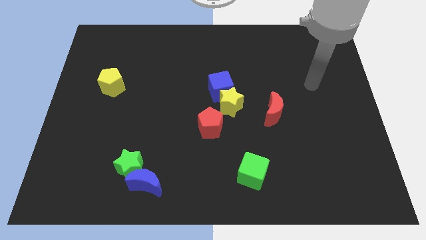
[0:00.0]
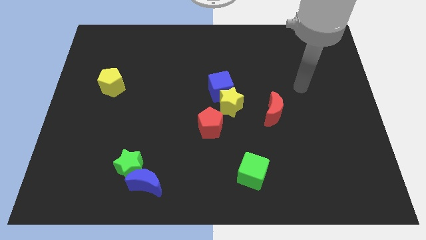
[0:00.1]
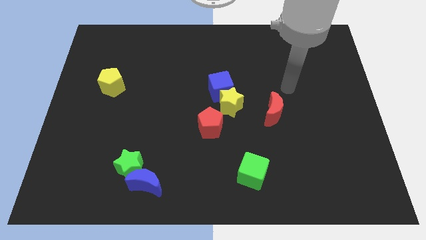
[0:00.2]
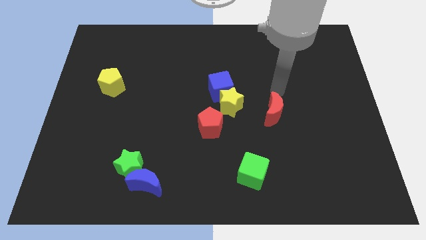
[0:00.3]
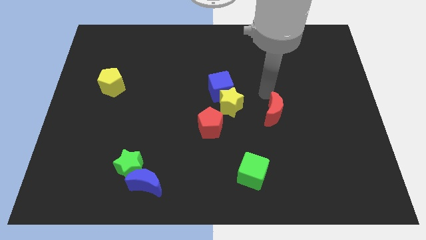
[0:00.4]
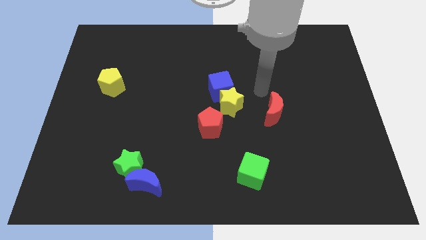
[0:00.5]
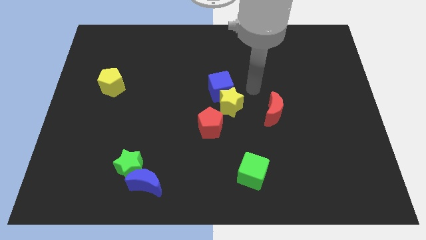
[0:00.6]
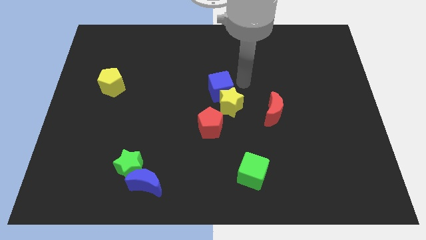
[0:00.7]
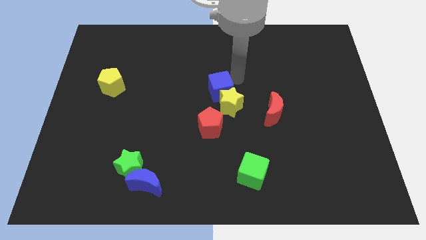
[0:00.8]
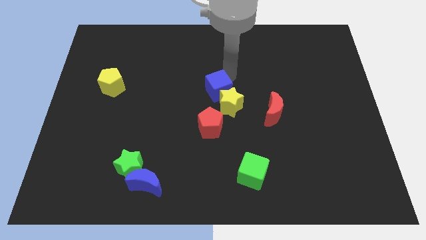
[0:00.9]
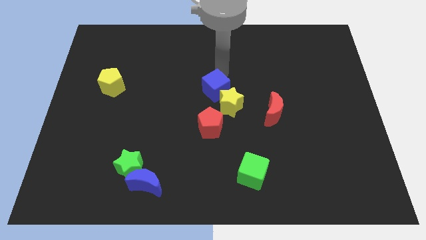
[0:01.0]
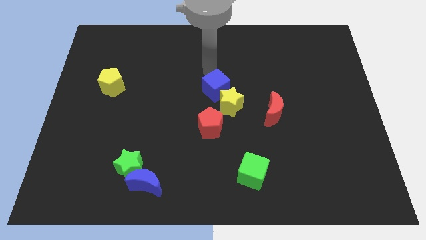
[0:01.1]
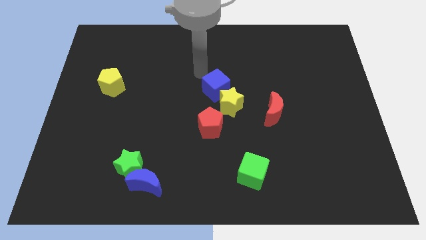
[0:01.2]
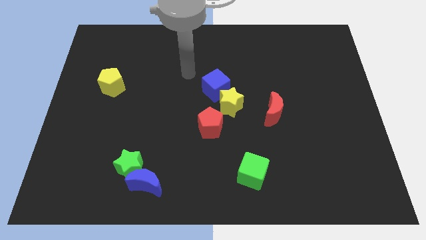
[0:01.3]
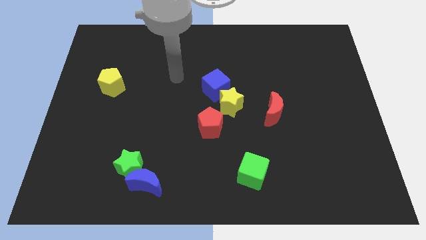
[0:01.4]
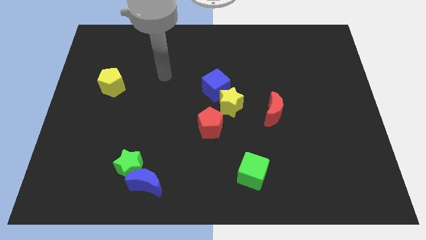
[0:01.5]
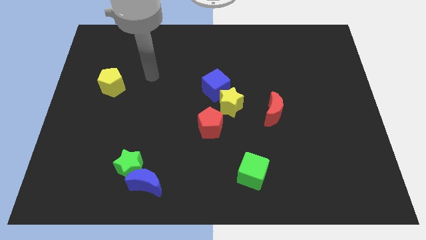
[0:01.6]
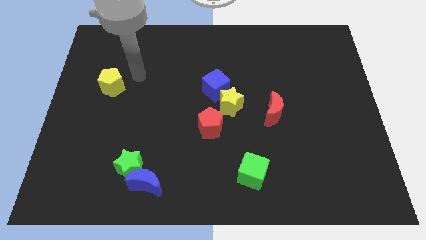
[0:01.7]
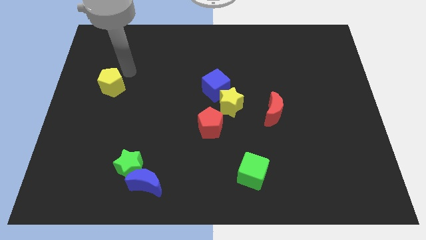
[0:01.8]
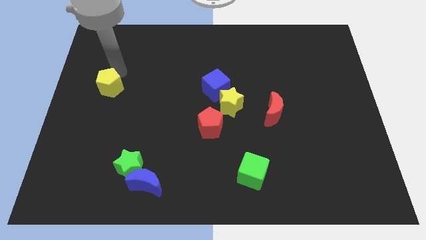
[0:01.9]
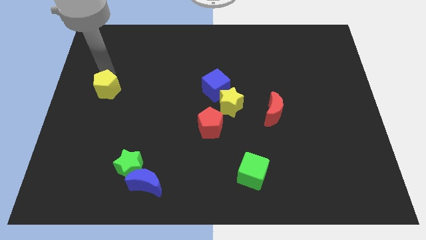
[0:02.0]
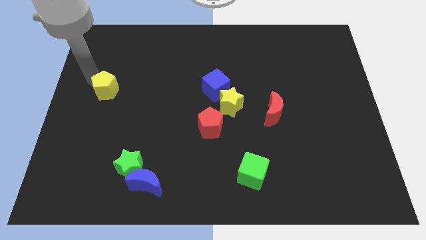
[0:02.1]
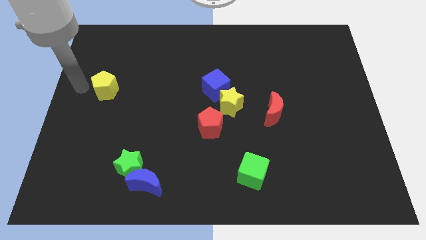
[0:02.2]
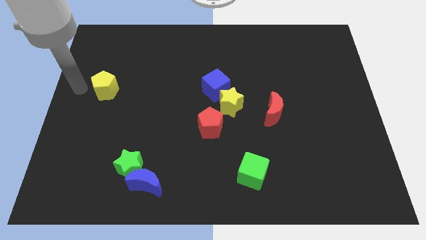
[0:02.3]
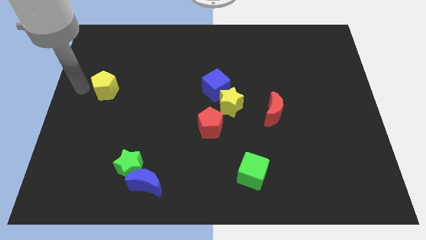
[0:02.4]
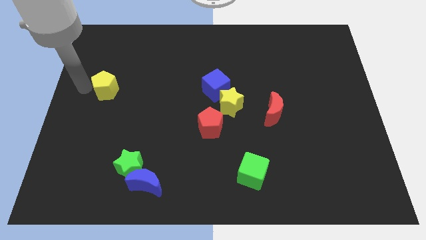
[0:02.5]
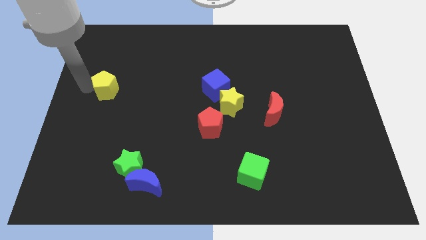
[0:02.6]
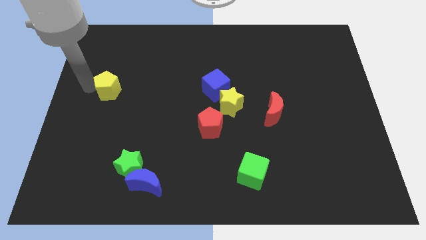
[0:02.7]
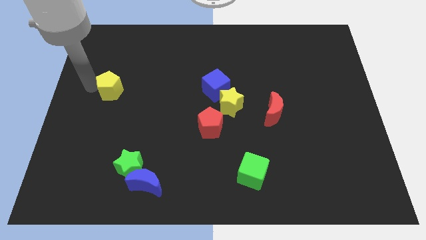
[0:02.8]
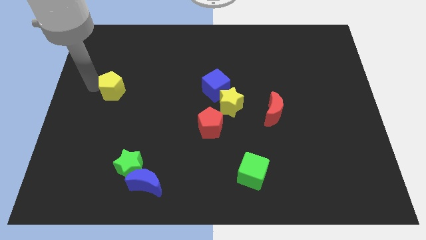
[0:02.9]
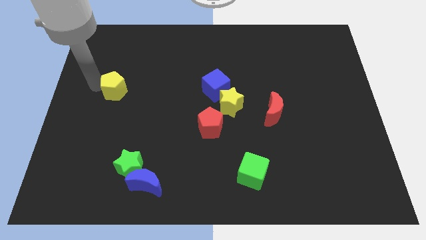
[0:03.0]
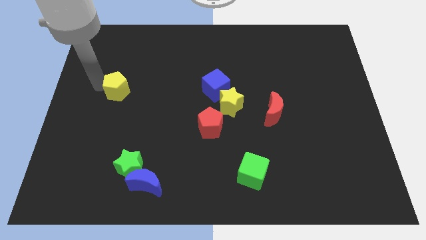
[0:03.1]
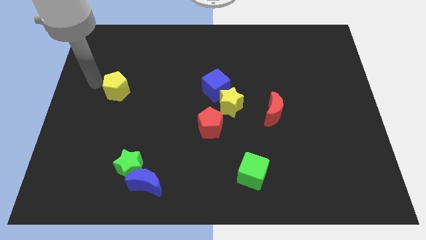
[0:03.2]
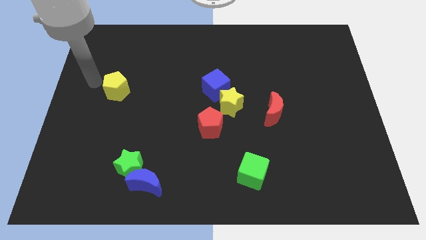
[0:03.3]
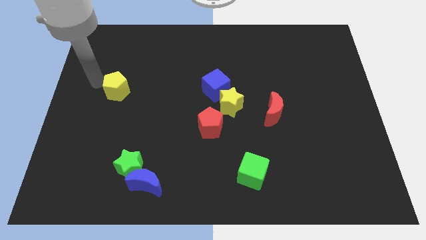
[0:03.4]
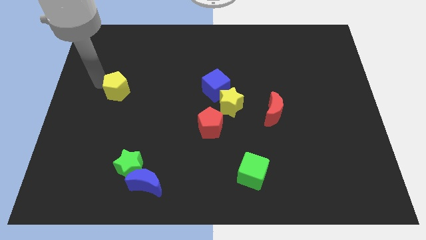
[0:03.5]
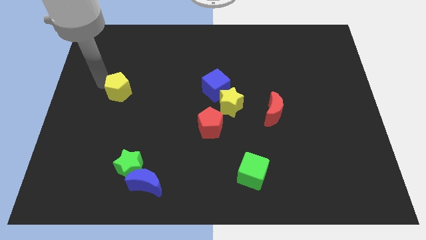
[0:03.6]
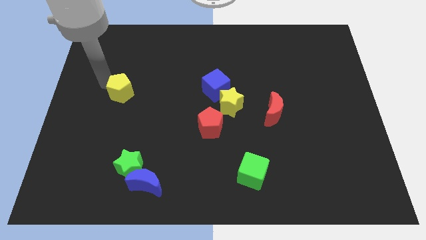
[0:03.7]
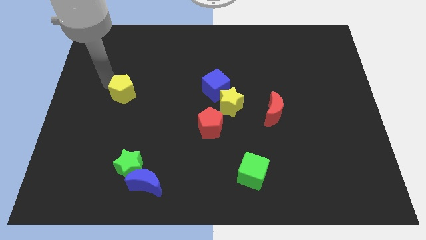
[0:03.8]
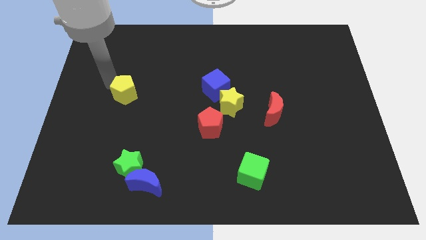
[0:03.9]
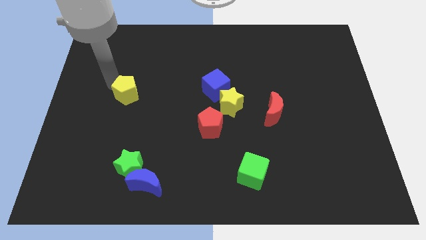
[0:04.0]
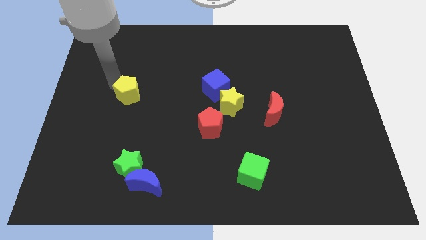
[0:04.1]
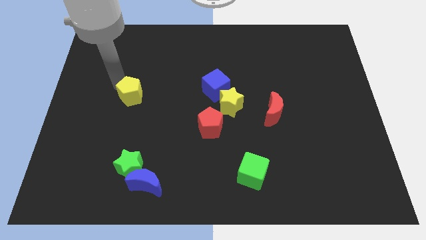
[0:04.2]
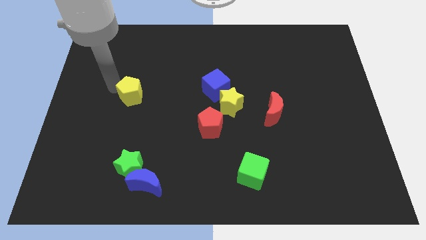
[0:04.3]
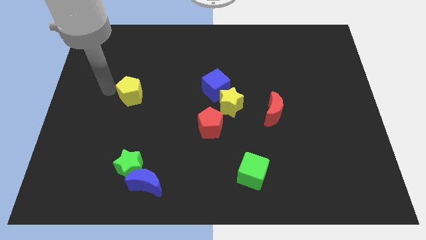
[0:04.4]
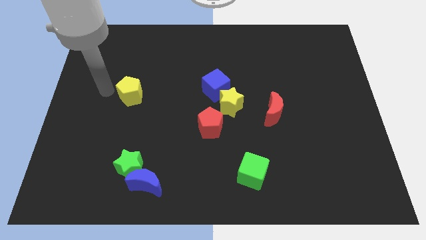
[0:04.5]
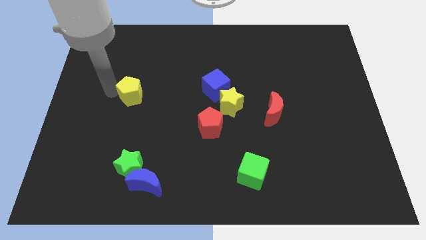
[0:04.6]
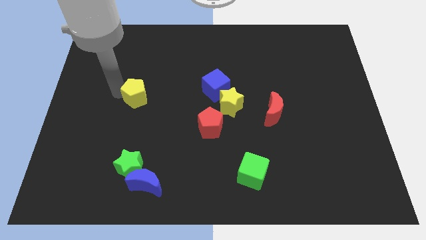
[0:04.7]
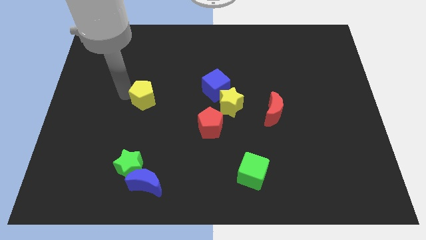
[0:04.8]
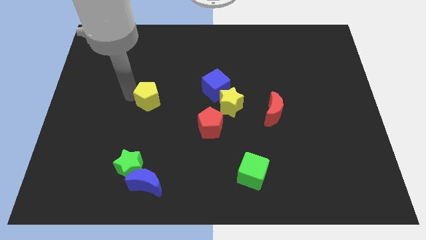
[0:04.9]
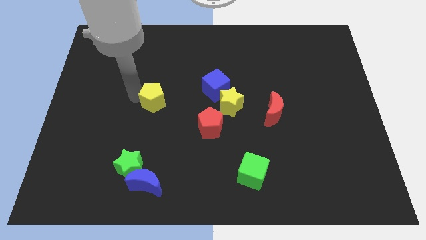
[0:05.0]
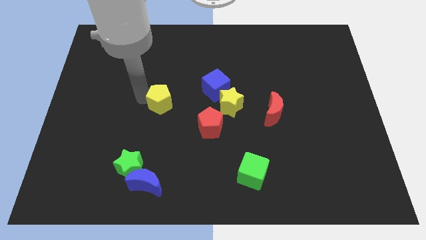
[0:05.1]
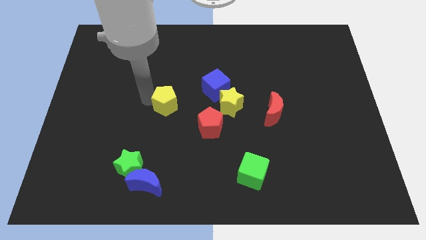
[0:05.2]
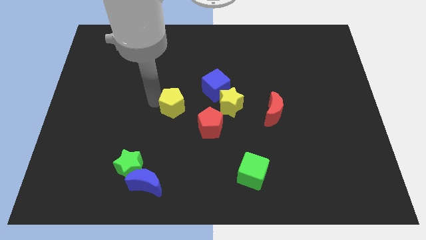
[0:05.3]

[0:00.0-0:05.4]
slide the yellow pentagon to the bottom left of the blue cube

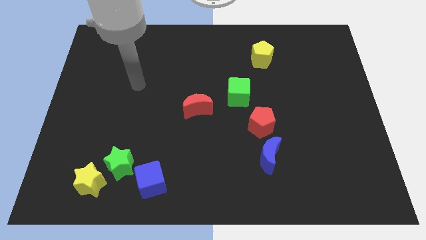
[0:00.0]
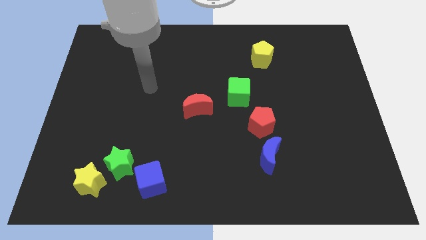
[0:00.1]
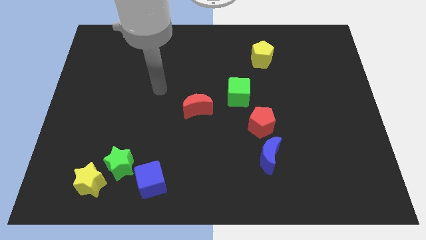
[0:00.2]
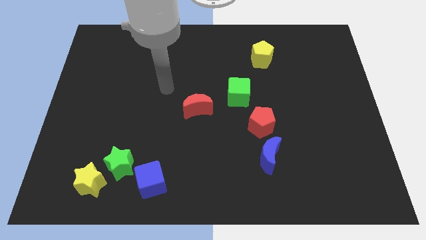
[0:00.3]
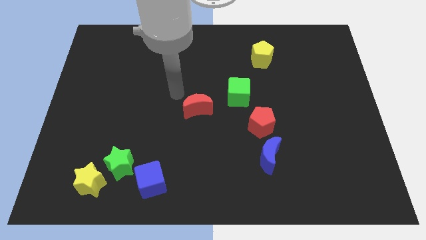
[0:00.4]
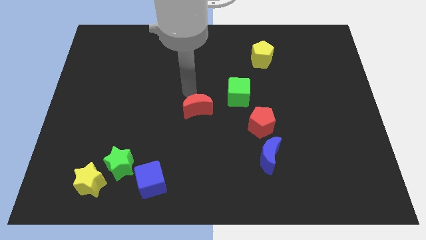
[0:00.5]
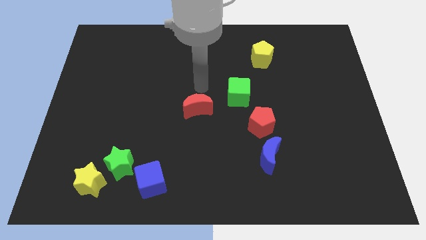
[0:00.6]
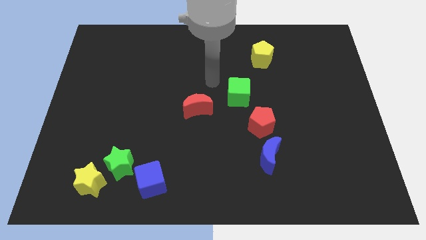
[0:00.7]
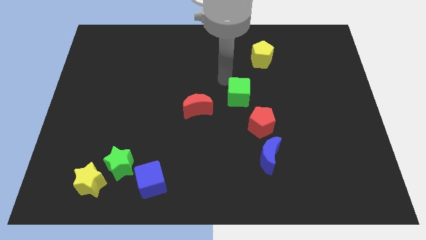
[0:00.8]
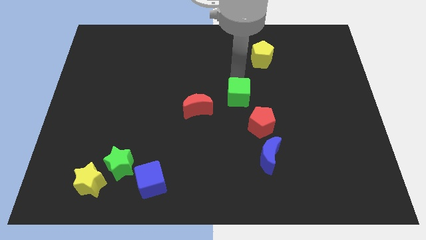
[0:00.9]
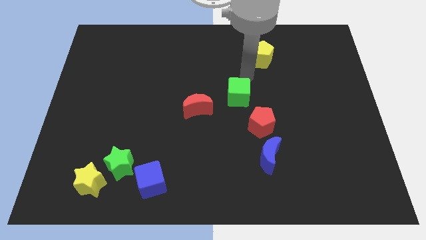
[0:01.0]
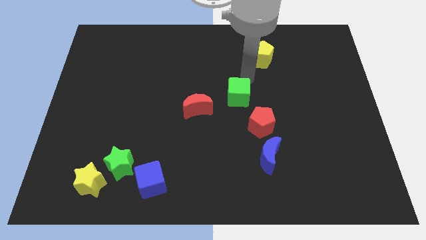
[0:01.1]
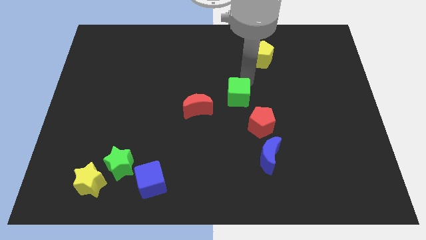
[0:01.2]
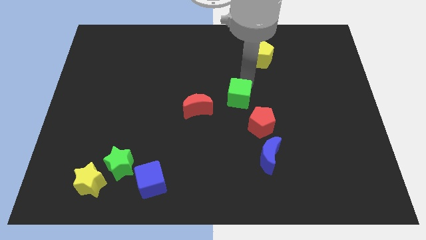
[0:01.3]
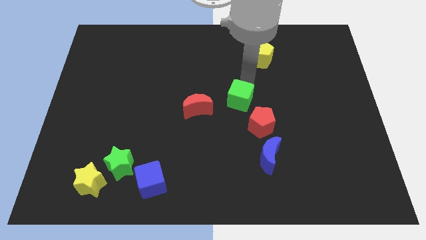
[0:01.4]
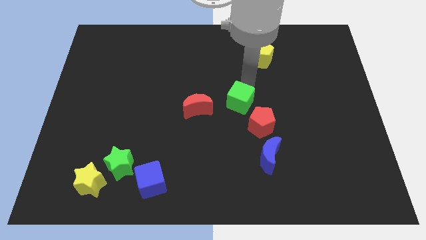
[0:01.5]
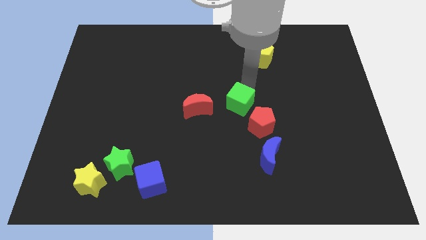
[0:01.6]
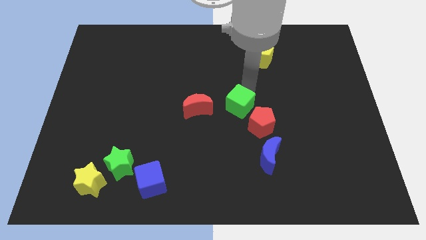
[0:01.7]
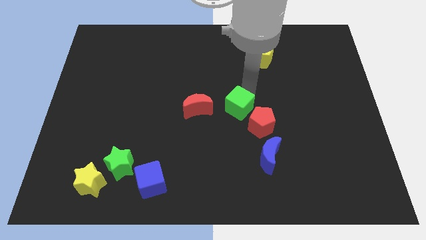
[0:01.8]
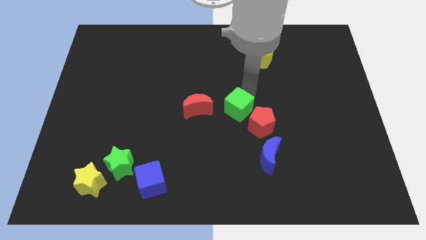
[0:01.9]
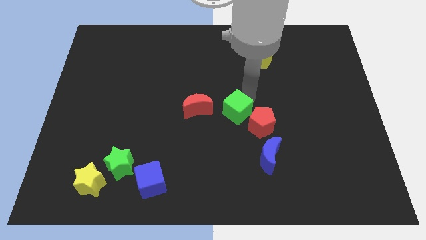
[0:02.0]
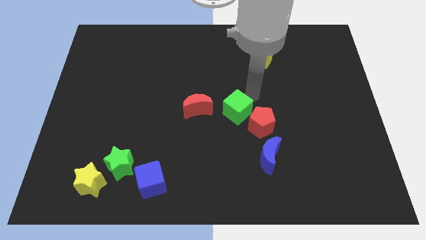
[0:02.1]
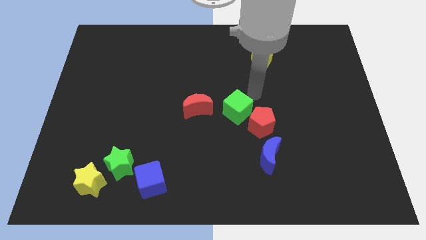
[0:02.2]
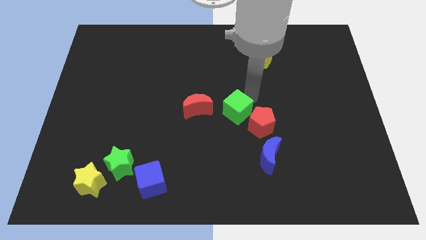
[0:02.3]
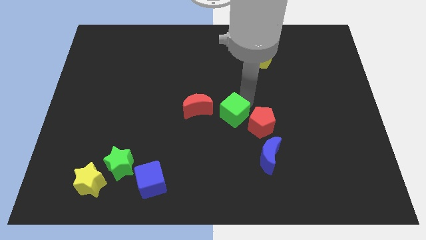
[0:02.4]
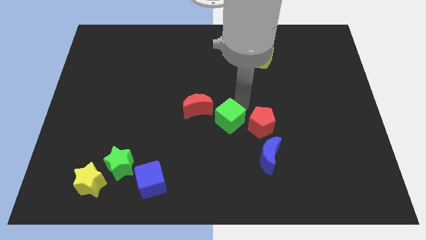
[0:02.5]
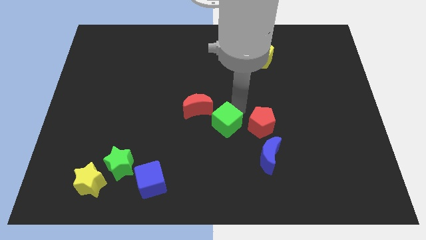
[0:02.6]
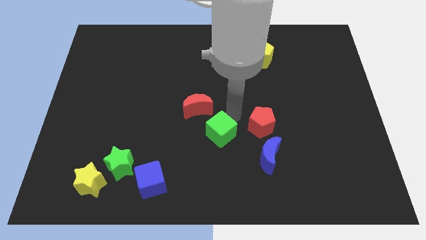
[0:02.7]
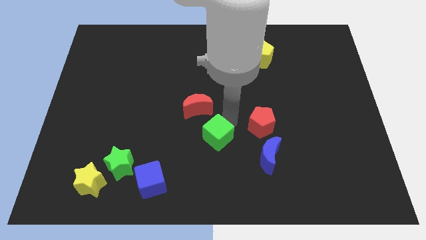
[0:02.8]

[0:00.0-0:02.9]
slide the green cube to the bottom of the red moon
